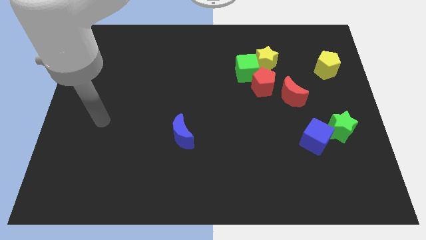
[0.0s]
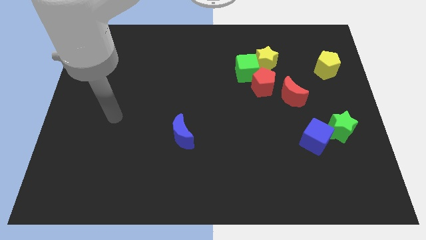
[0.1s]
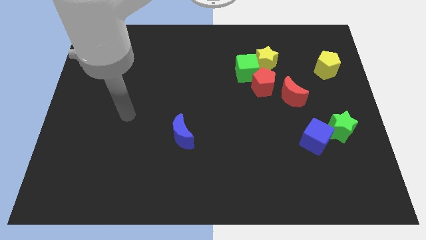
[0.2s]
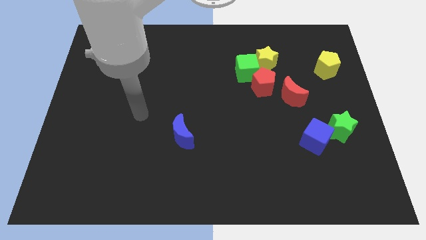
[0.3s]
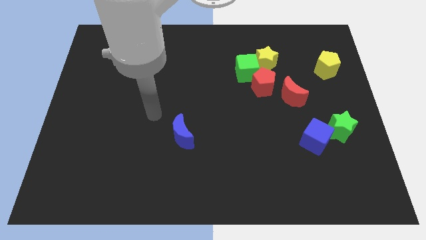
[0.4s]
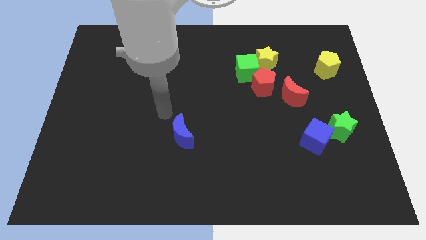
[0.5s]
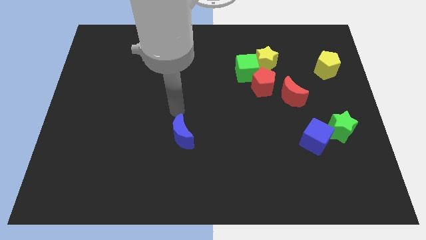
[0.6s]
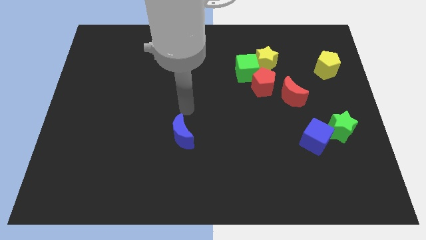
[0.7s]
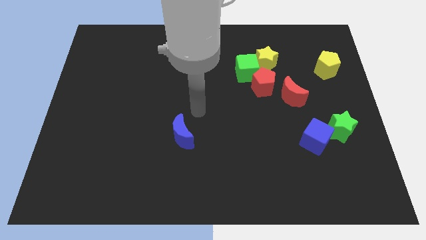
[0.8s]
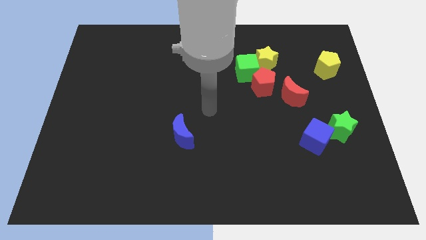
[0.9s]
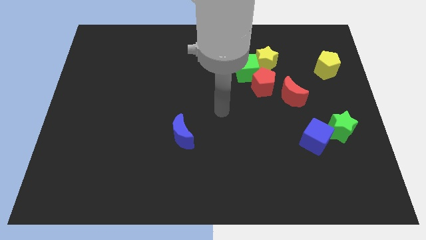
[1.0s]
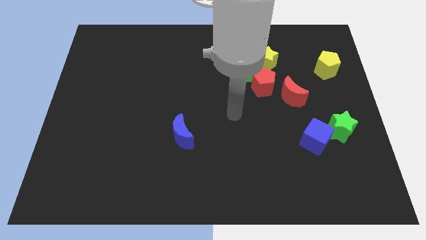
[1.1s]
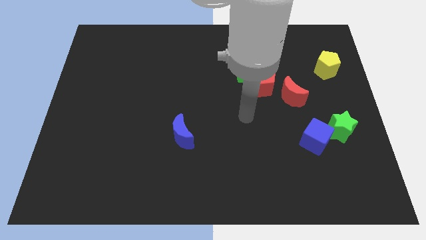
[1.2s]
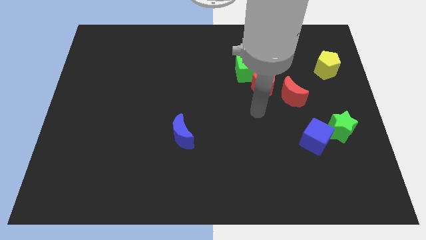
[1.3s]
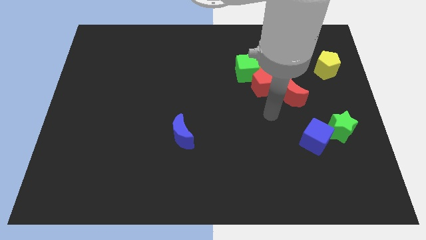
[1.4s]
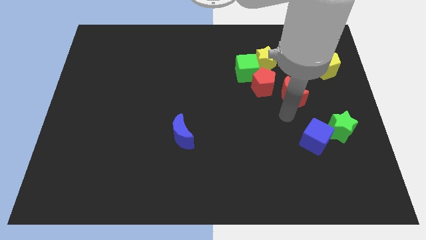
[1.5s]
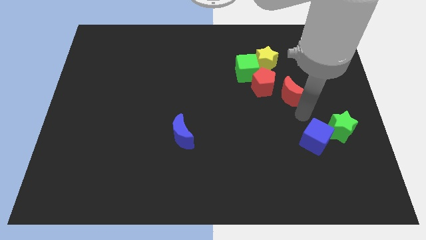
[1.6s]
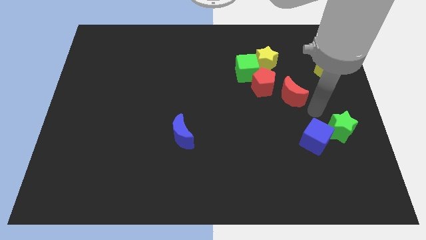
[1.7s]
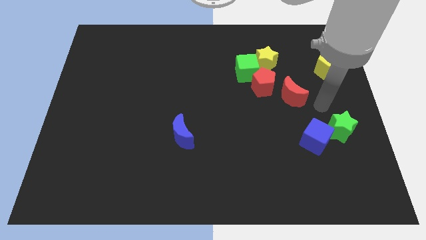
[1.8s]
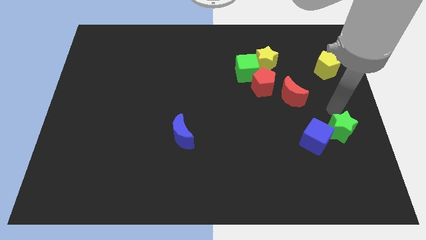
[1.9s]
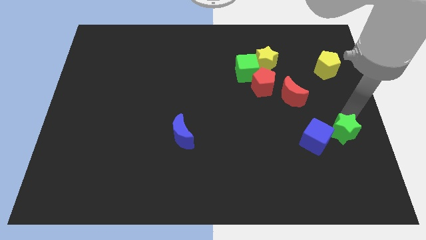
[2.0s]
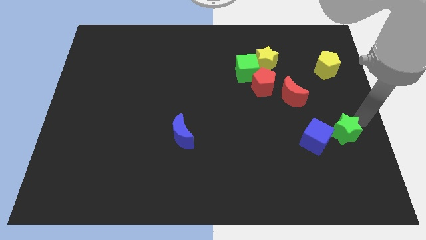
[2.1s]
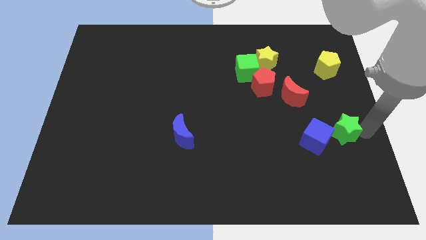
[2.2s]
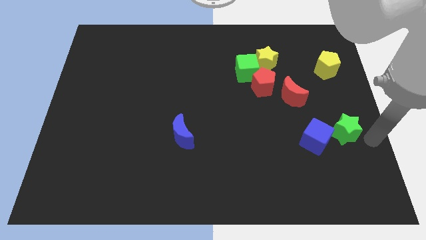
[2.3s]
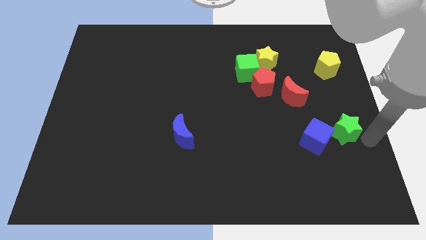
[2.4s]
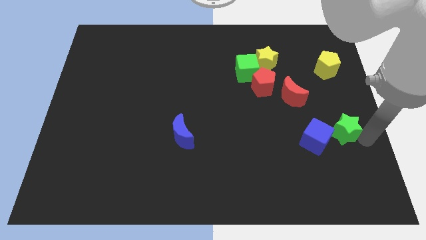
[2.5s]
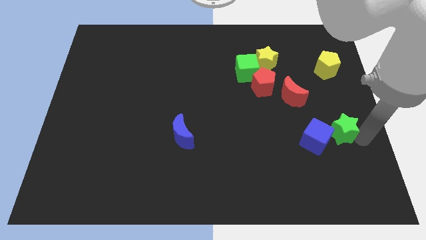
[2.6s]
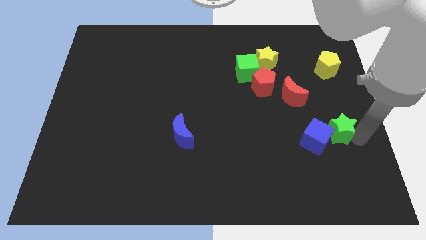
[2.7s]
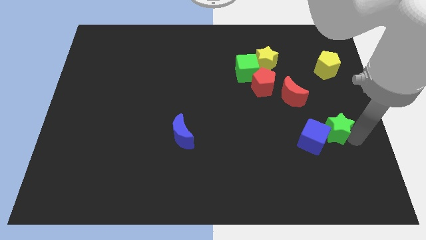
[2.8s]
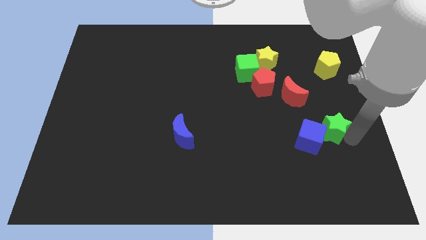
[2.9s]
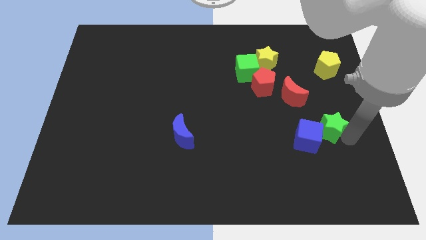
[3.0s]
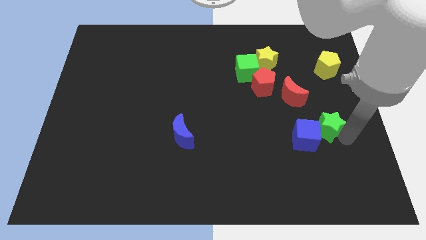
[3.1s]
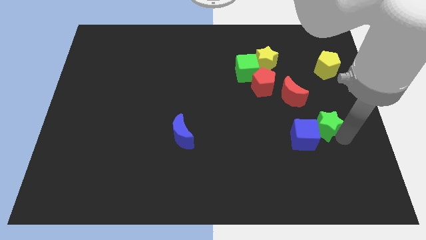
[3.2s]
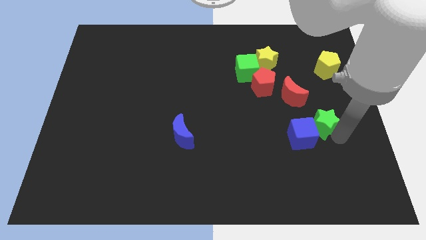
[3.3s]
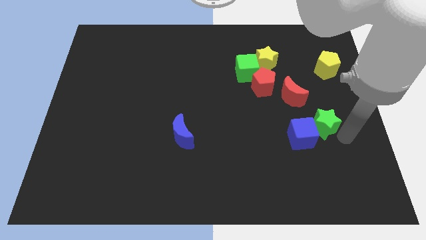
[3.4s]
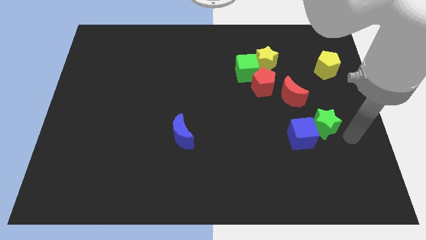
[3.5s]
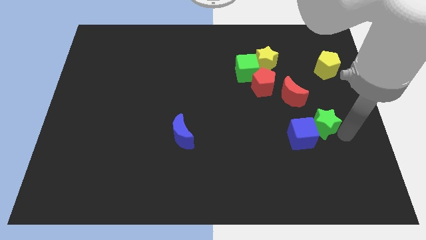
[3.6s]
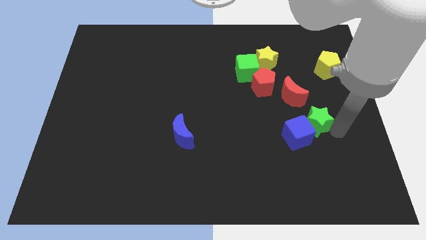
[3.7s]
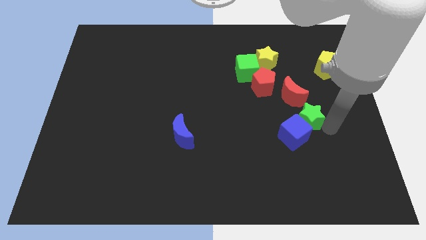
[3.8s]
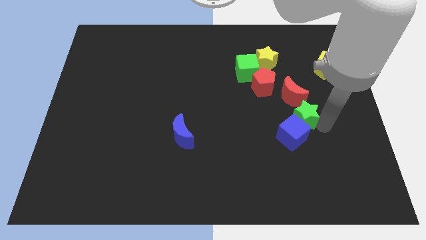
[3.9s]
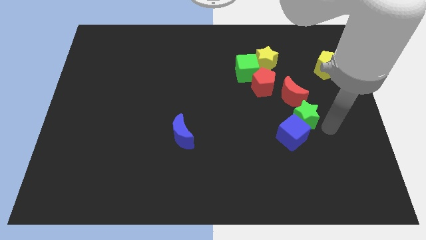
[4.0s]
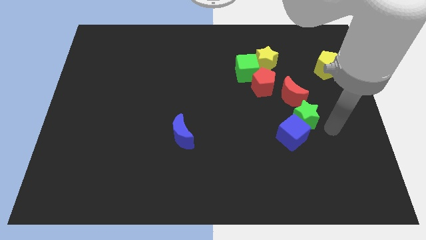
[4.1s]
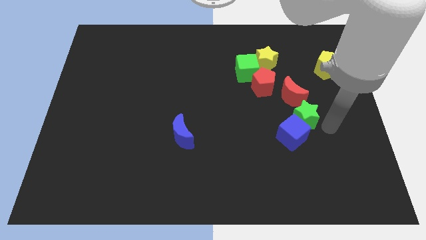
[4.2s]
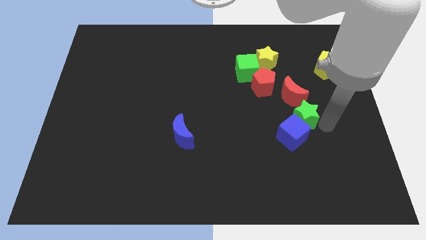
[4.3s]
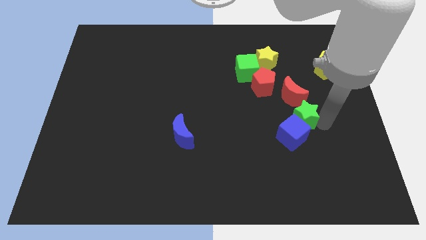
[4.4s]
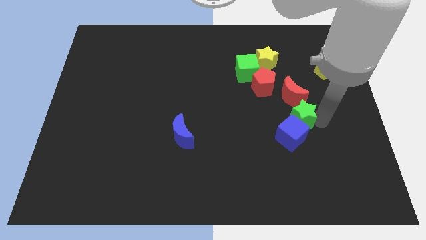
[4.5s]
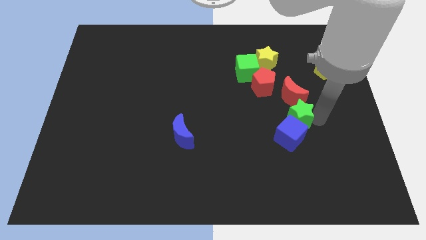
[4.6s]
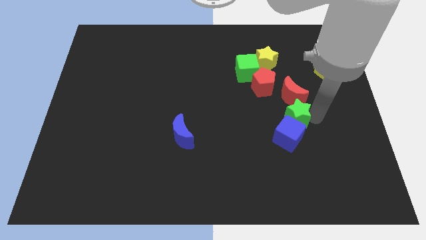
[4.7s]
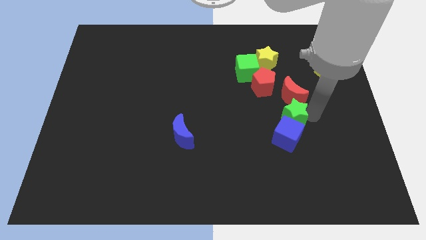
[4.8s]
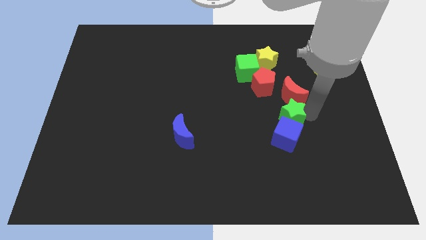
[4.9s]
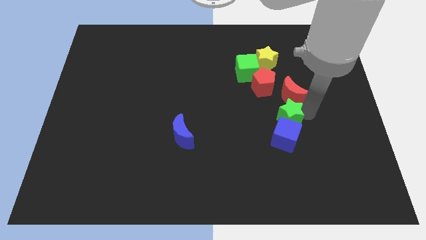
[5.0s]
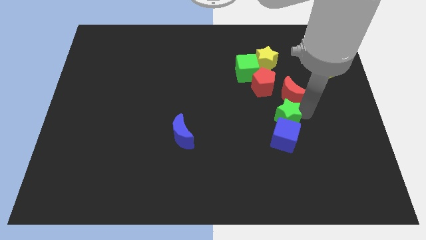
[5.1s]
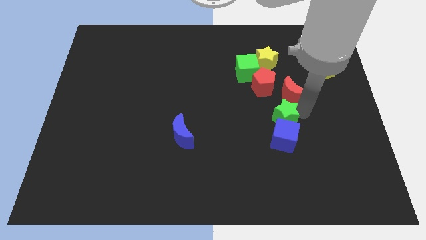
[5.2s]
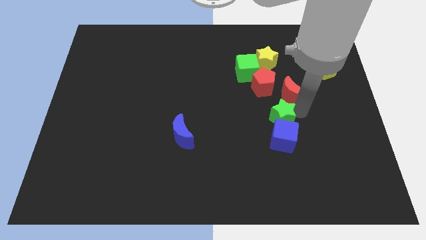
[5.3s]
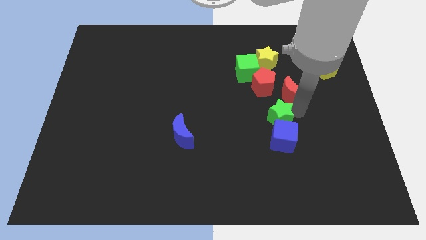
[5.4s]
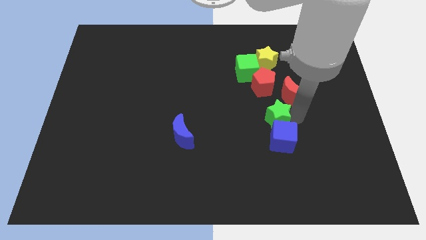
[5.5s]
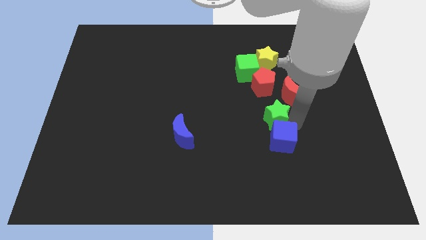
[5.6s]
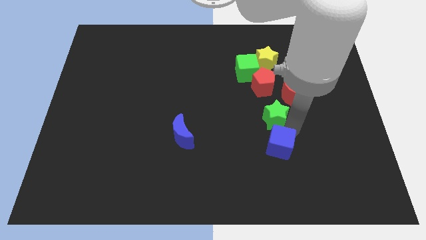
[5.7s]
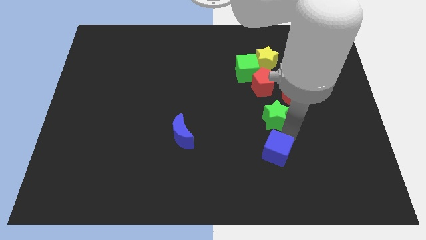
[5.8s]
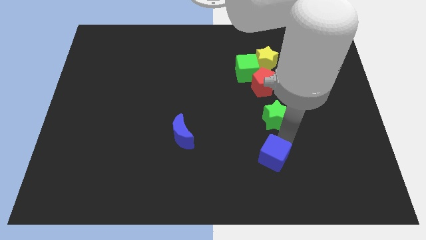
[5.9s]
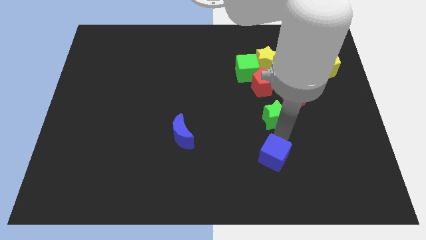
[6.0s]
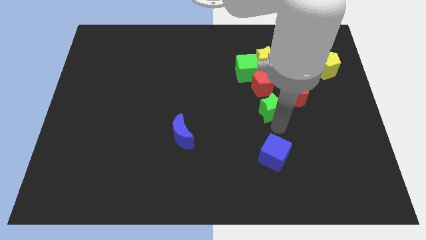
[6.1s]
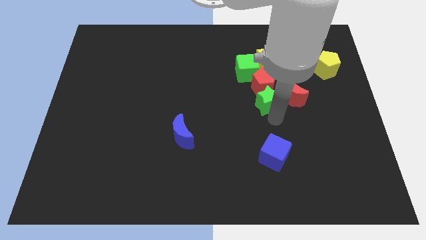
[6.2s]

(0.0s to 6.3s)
slide the green star next to the red pentagon

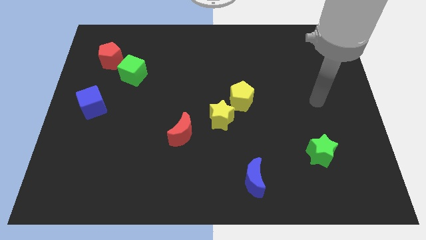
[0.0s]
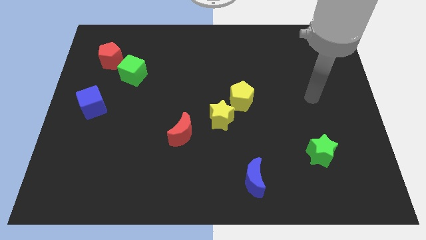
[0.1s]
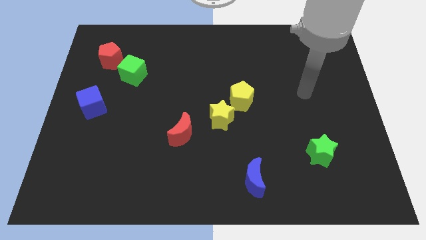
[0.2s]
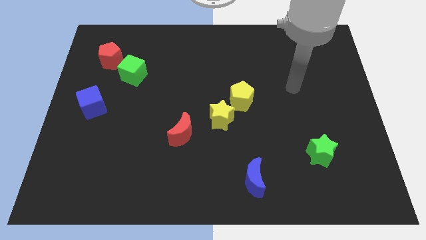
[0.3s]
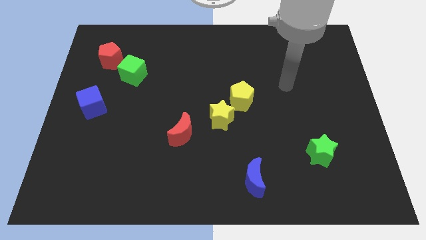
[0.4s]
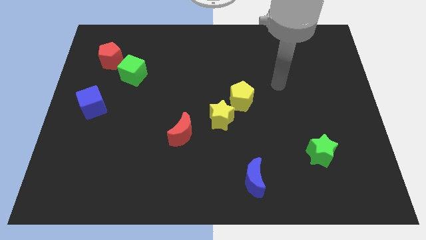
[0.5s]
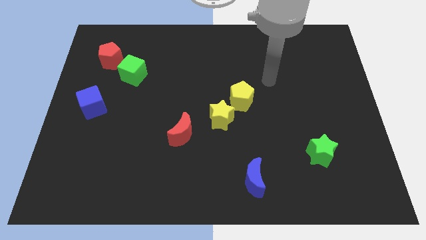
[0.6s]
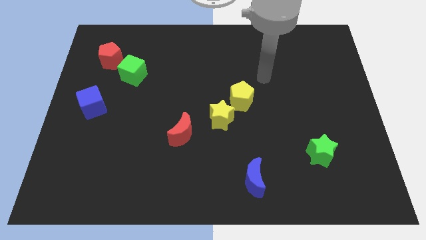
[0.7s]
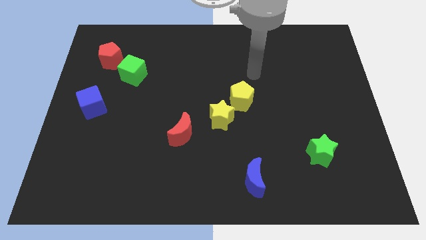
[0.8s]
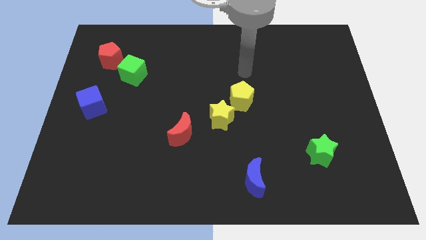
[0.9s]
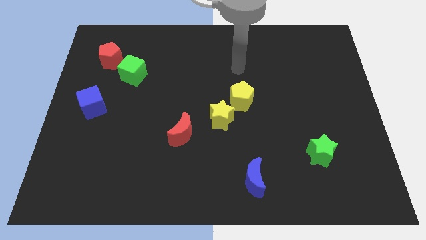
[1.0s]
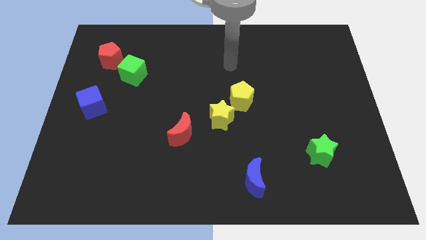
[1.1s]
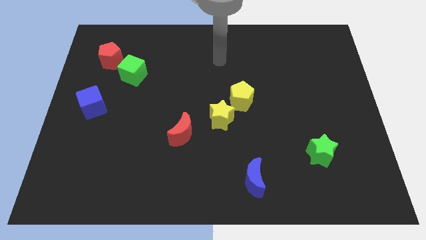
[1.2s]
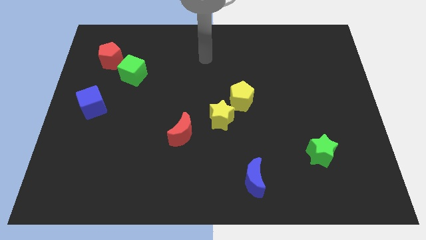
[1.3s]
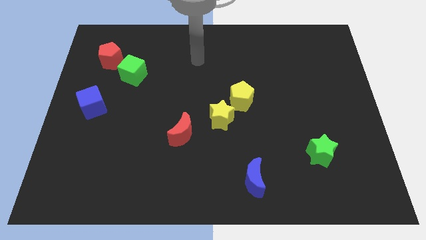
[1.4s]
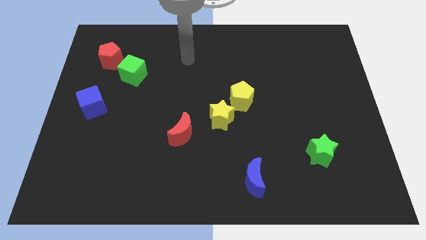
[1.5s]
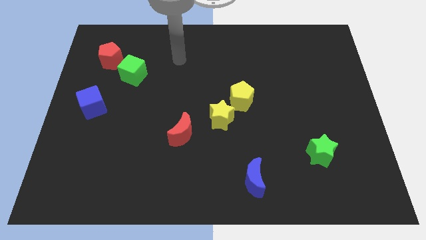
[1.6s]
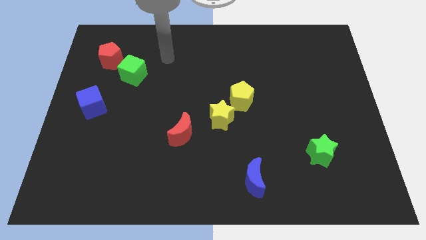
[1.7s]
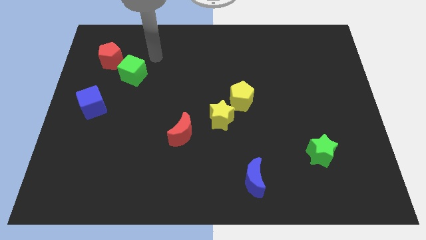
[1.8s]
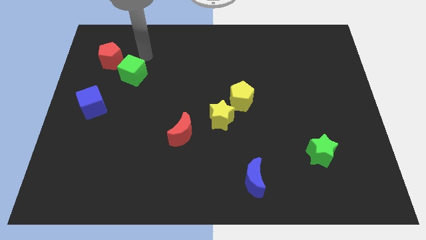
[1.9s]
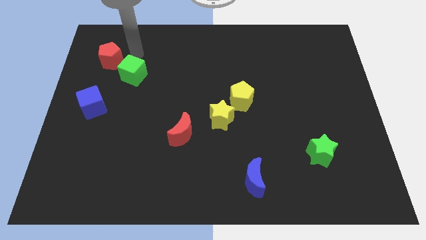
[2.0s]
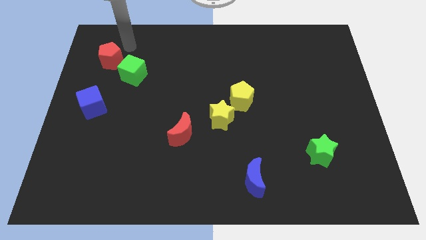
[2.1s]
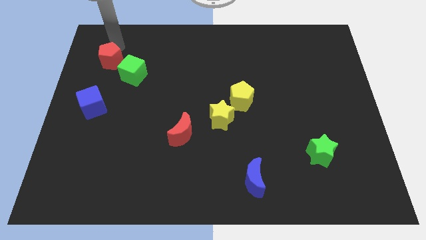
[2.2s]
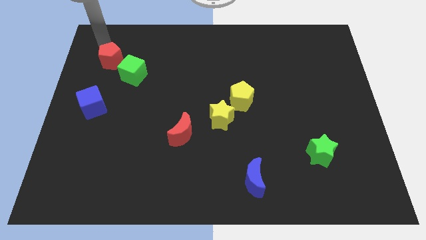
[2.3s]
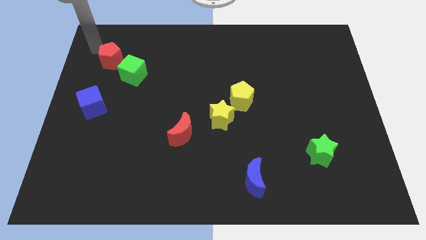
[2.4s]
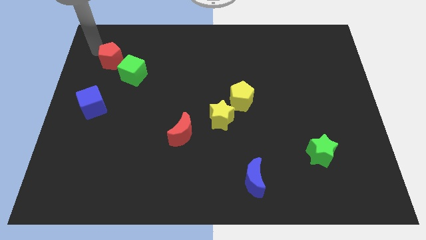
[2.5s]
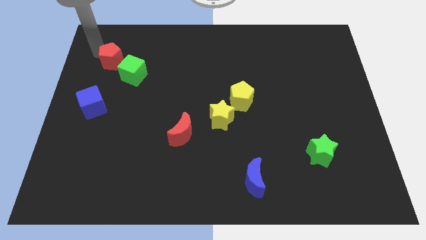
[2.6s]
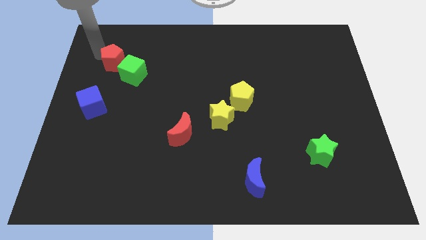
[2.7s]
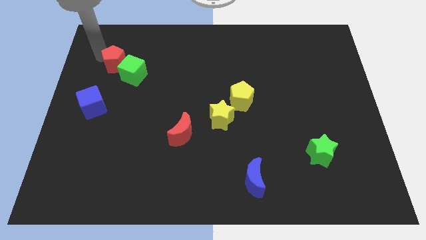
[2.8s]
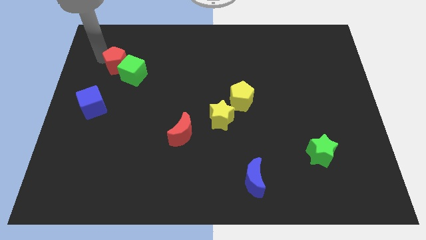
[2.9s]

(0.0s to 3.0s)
put the red pentagon close to the green cube
